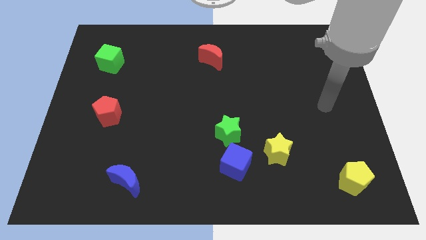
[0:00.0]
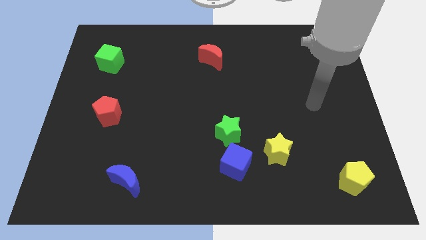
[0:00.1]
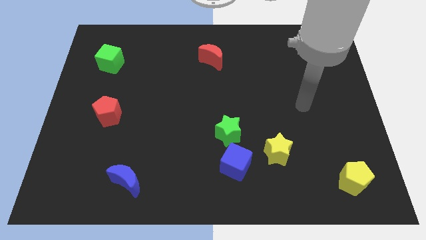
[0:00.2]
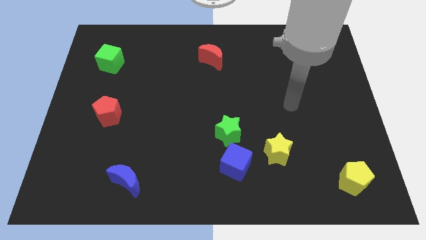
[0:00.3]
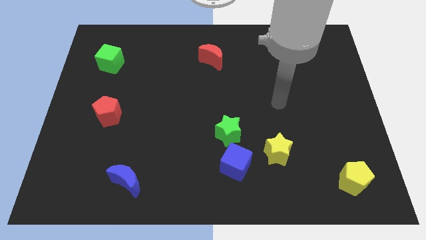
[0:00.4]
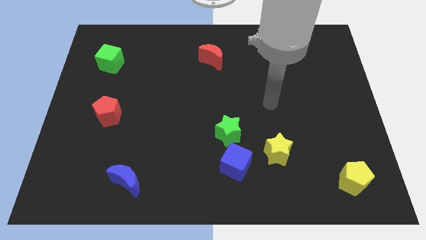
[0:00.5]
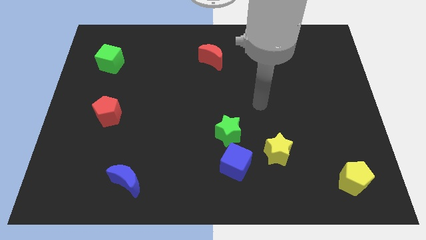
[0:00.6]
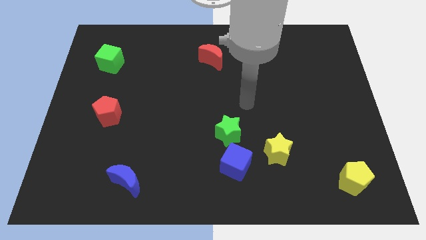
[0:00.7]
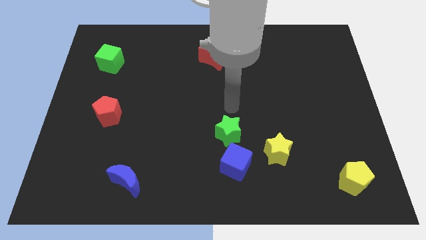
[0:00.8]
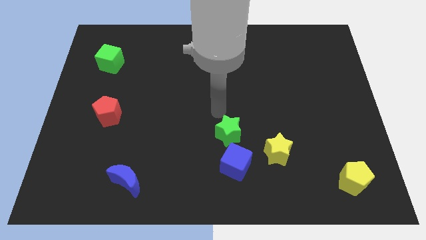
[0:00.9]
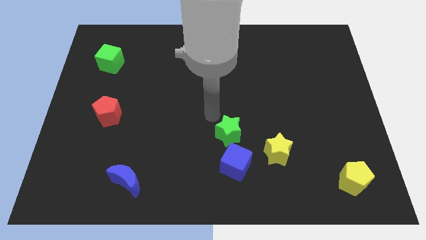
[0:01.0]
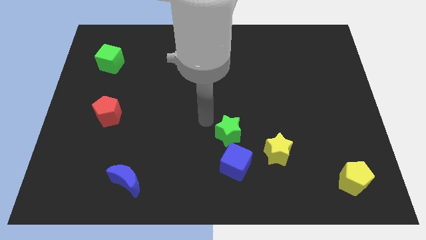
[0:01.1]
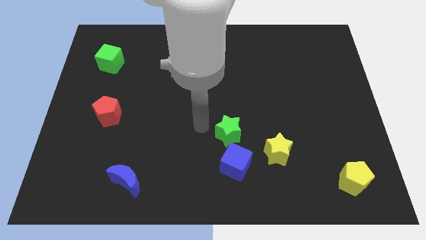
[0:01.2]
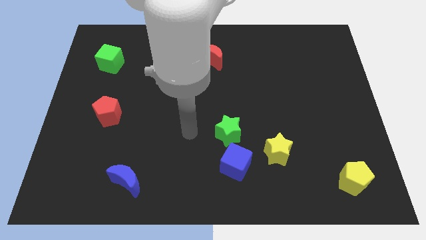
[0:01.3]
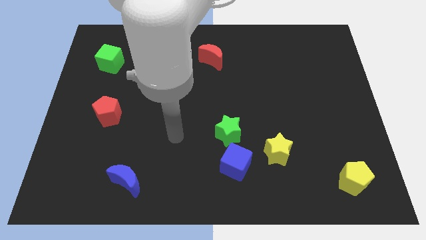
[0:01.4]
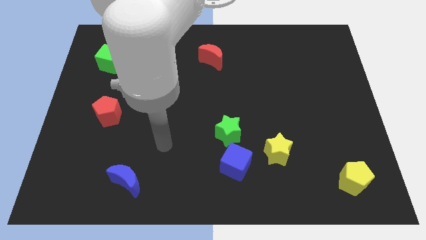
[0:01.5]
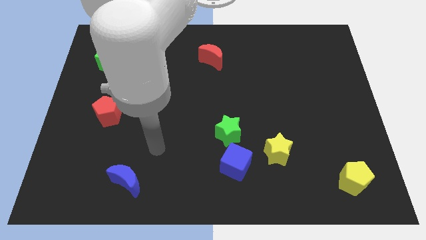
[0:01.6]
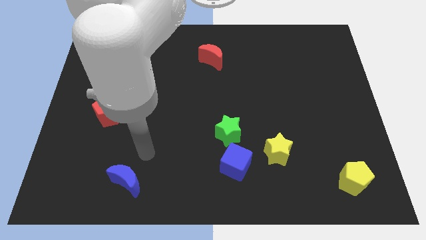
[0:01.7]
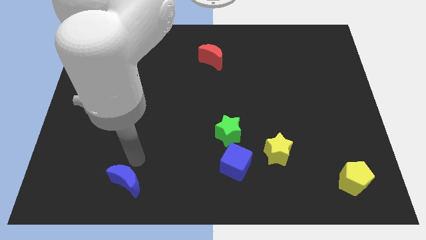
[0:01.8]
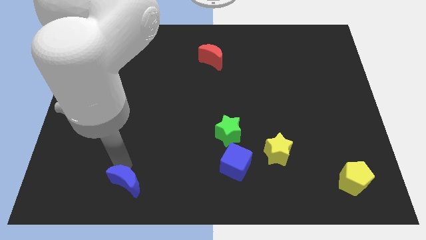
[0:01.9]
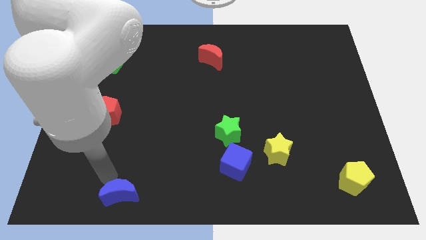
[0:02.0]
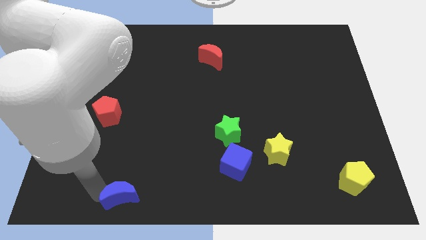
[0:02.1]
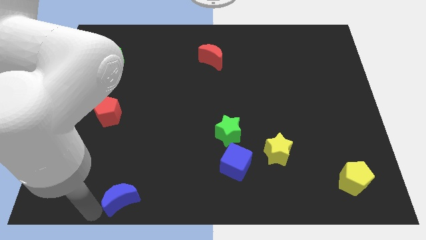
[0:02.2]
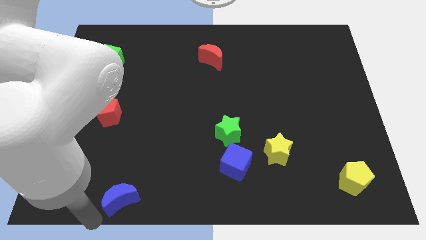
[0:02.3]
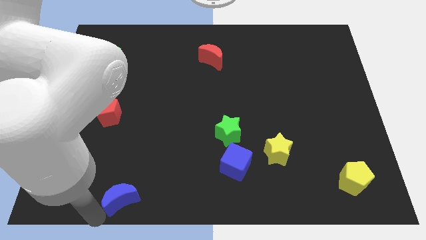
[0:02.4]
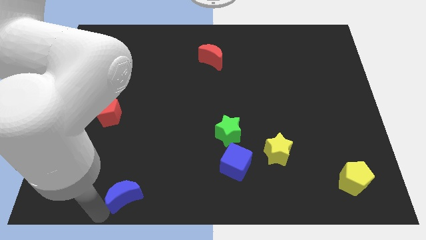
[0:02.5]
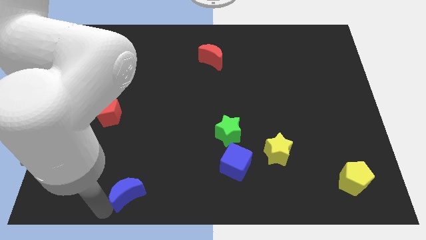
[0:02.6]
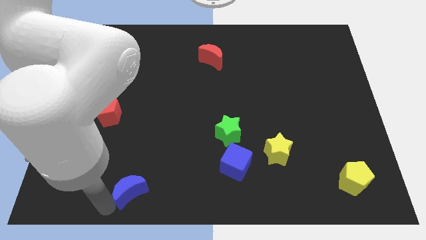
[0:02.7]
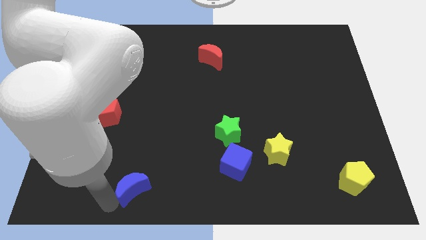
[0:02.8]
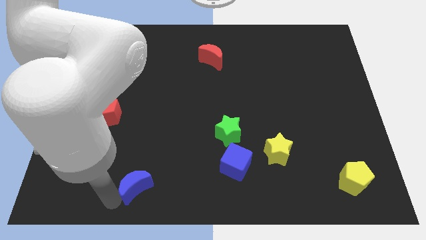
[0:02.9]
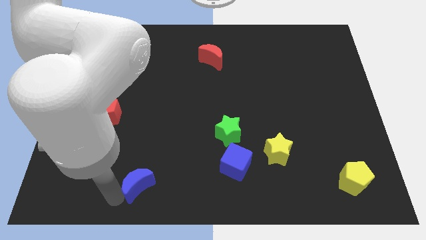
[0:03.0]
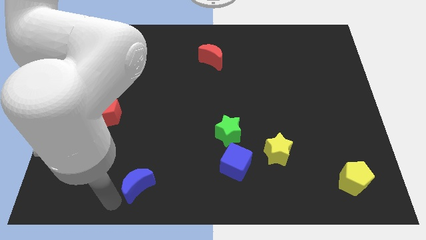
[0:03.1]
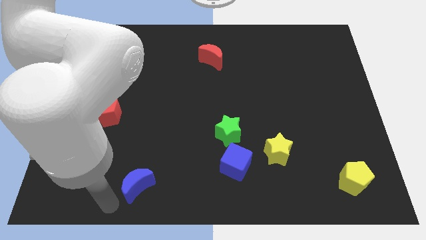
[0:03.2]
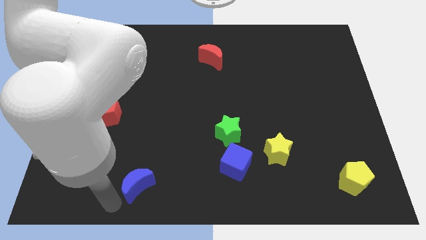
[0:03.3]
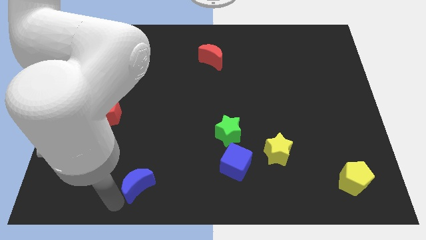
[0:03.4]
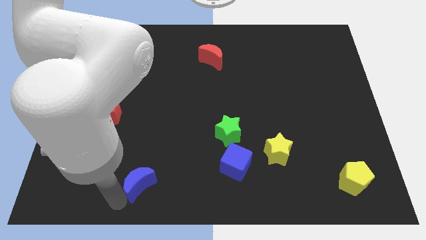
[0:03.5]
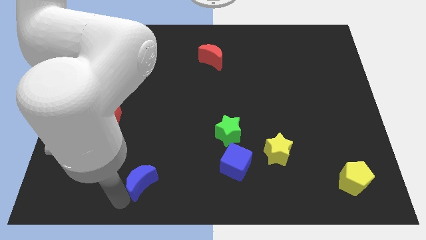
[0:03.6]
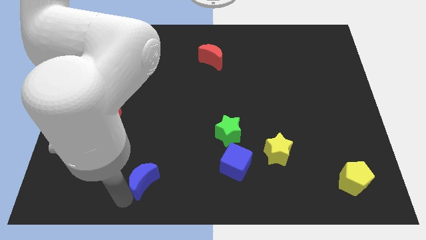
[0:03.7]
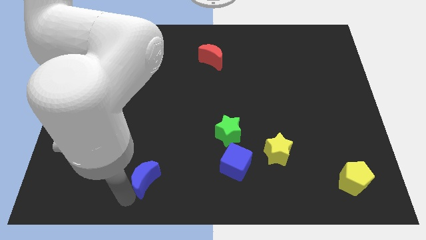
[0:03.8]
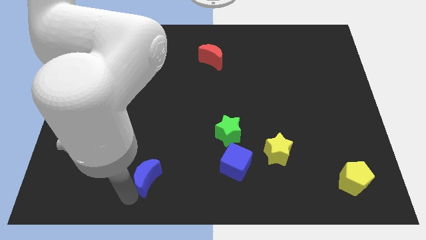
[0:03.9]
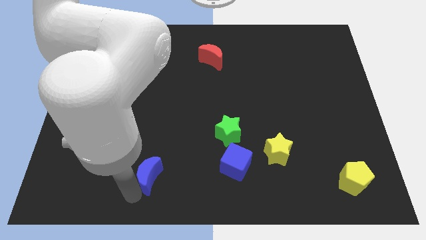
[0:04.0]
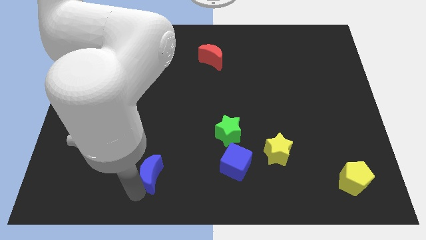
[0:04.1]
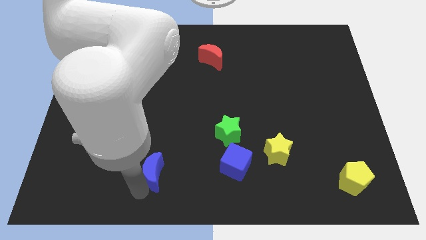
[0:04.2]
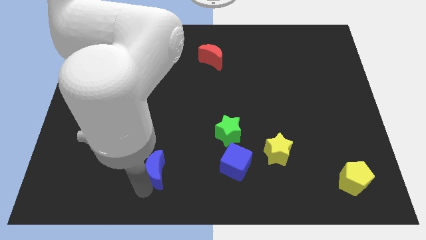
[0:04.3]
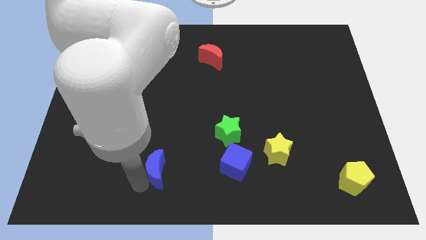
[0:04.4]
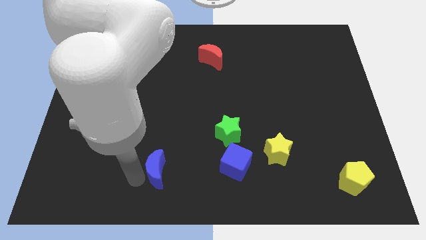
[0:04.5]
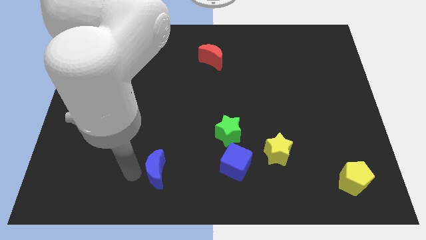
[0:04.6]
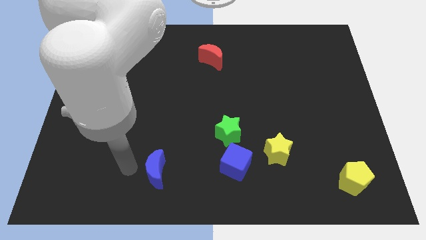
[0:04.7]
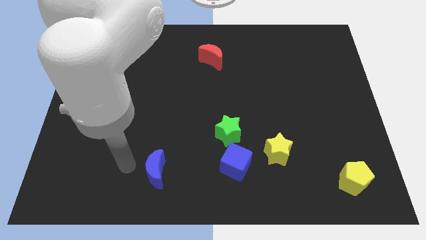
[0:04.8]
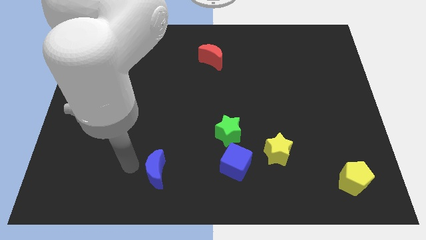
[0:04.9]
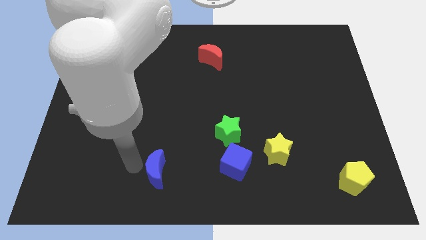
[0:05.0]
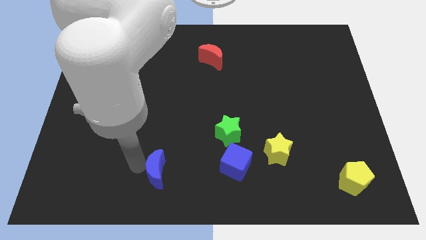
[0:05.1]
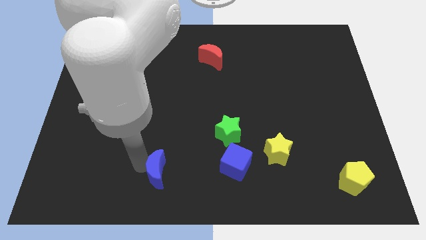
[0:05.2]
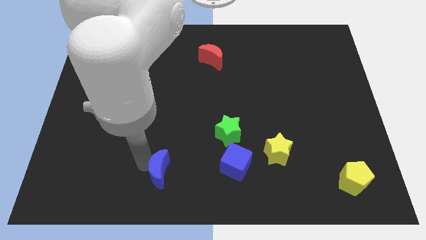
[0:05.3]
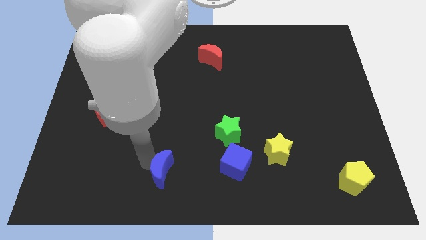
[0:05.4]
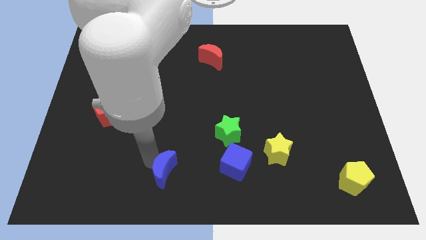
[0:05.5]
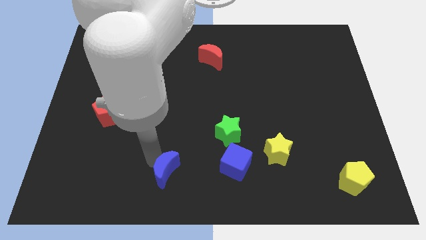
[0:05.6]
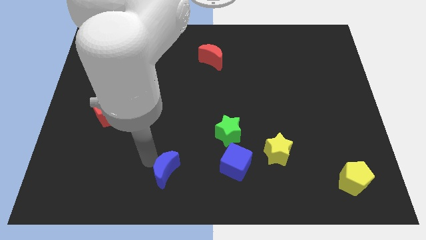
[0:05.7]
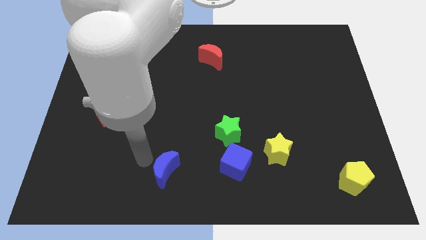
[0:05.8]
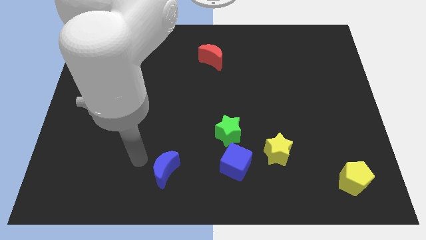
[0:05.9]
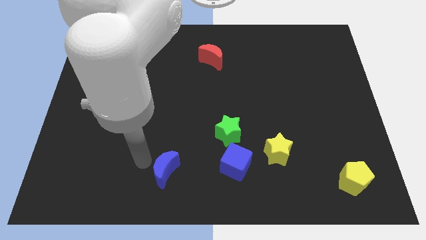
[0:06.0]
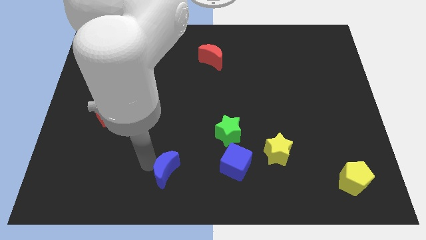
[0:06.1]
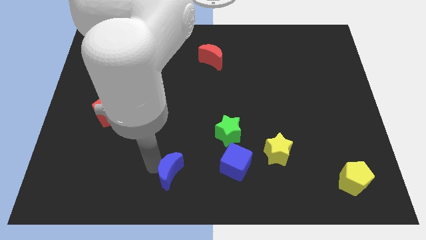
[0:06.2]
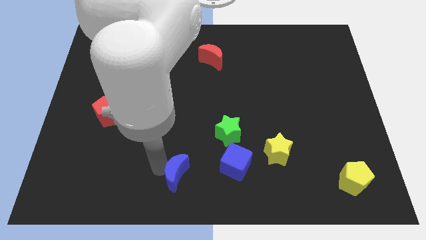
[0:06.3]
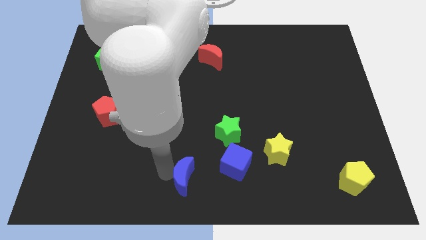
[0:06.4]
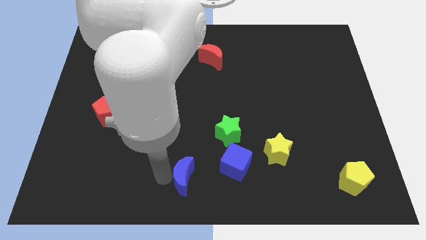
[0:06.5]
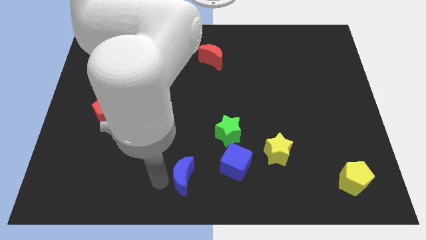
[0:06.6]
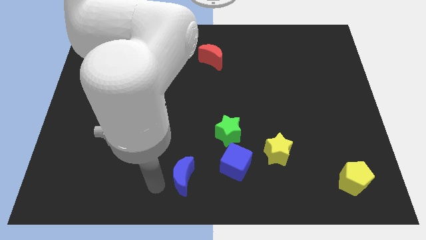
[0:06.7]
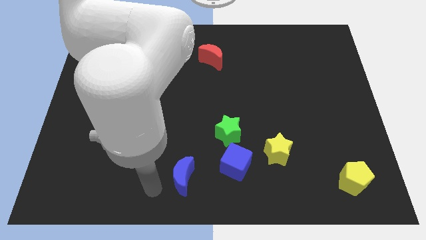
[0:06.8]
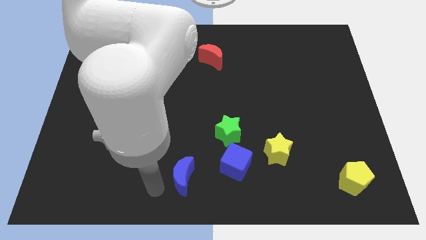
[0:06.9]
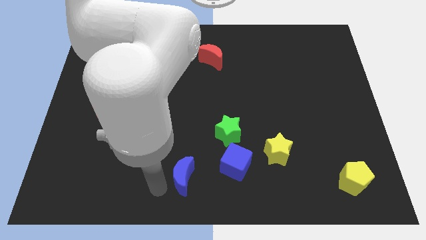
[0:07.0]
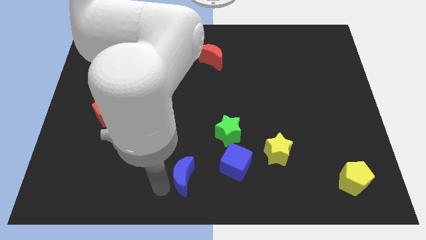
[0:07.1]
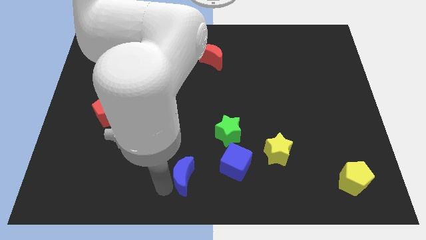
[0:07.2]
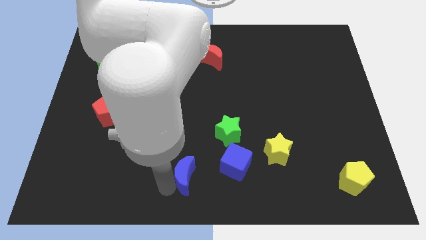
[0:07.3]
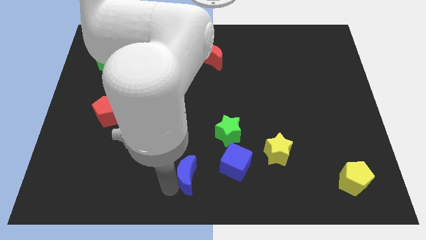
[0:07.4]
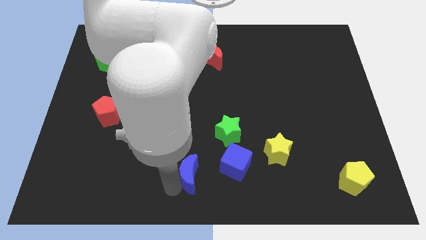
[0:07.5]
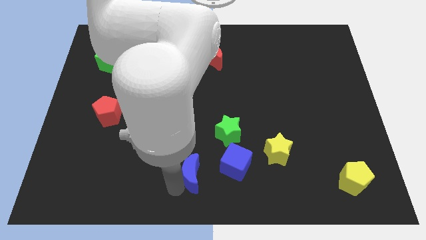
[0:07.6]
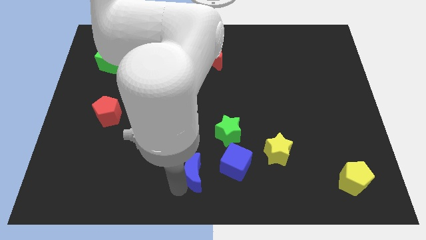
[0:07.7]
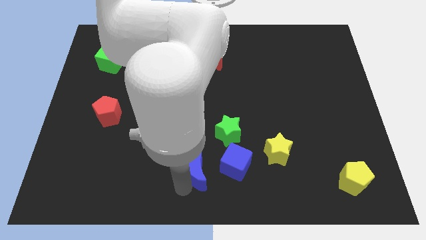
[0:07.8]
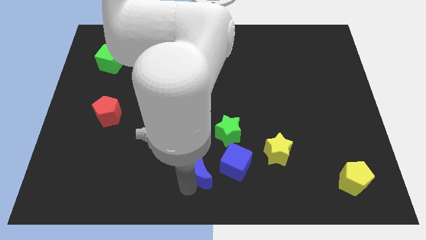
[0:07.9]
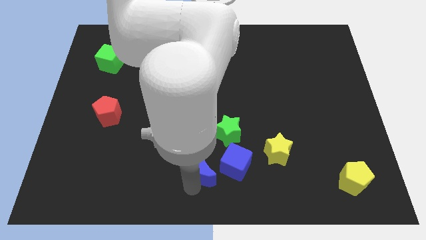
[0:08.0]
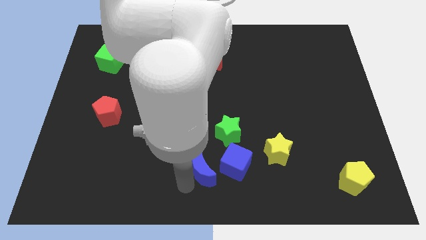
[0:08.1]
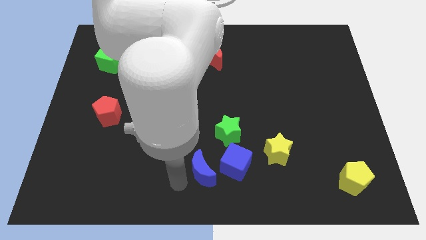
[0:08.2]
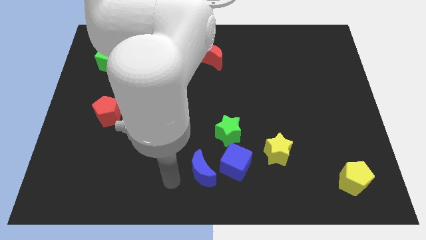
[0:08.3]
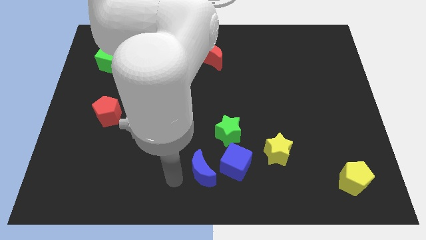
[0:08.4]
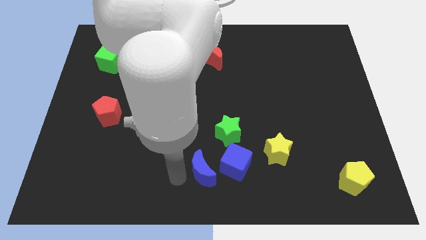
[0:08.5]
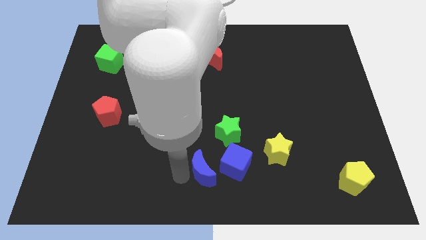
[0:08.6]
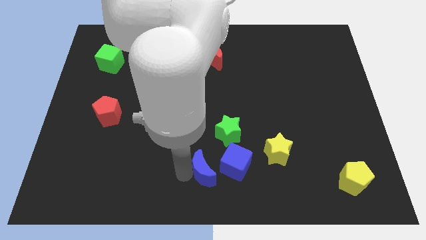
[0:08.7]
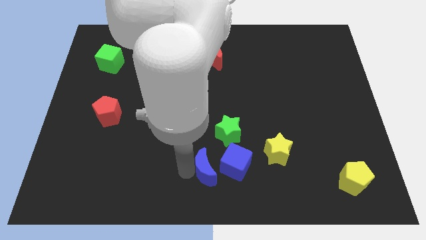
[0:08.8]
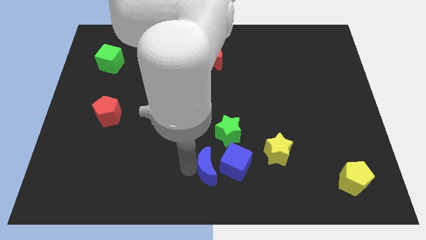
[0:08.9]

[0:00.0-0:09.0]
move the blue moon next to the blue cube
